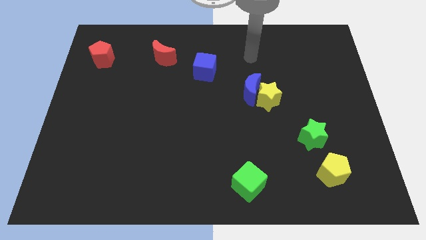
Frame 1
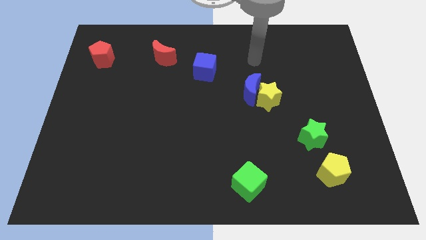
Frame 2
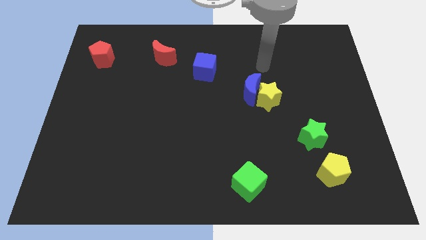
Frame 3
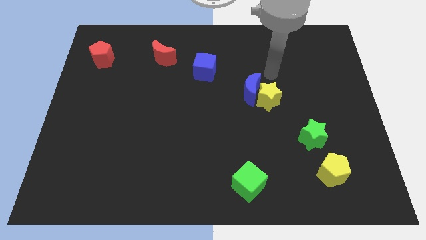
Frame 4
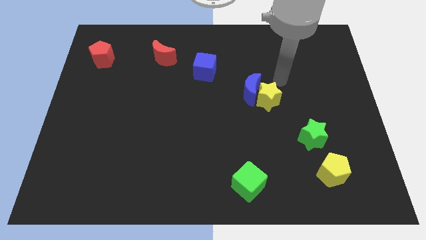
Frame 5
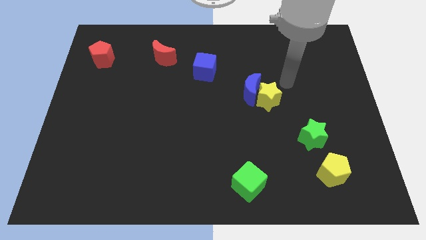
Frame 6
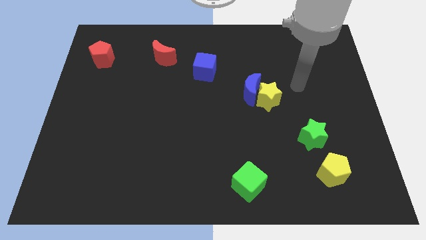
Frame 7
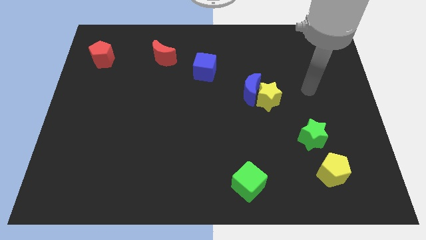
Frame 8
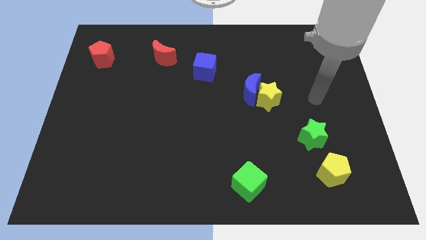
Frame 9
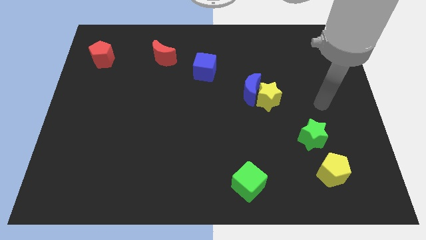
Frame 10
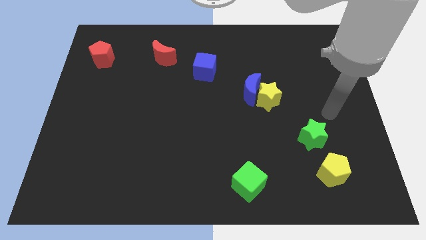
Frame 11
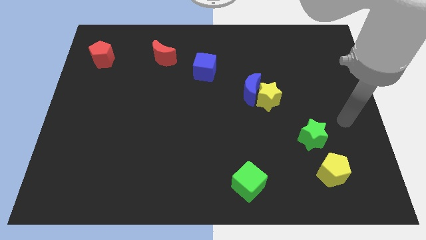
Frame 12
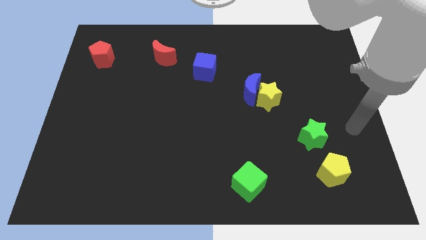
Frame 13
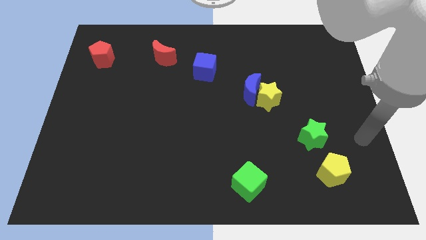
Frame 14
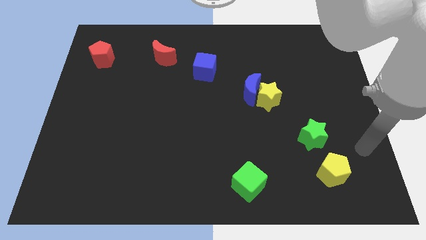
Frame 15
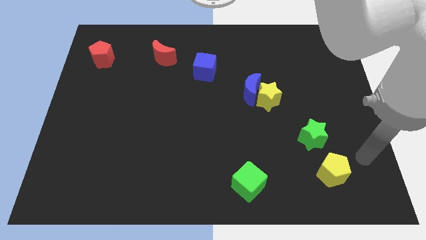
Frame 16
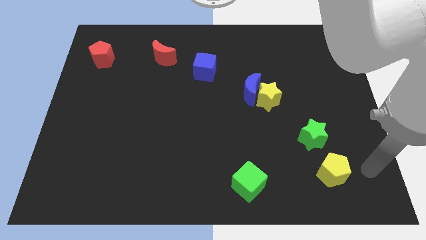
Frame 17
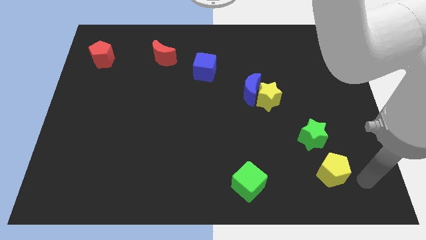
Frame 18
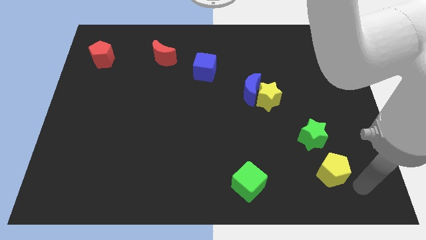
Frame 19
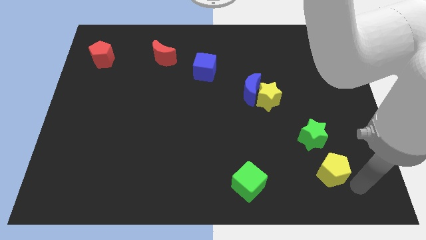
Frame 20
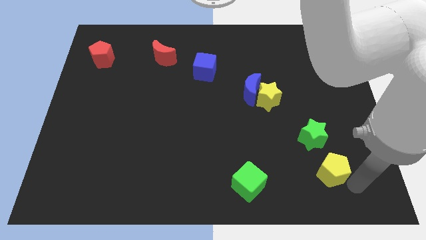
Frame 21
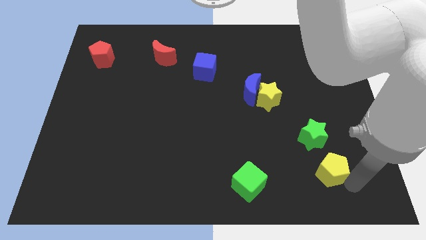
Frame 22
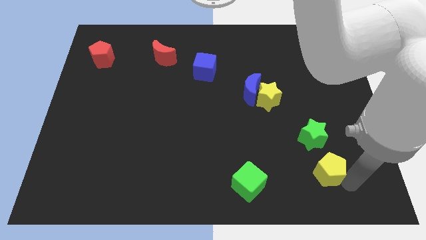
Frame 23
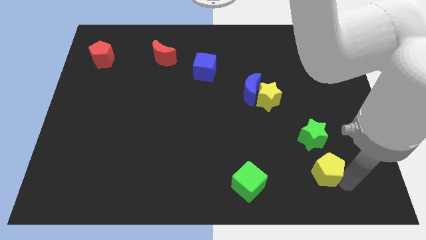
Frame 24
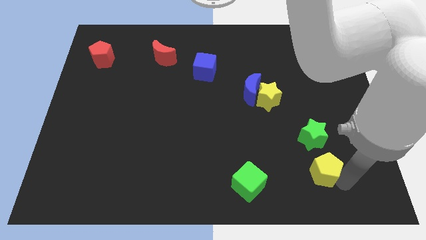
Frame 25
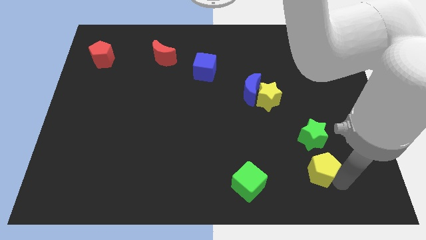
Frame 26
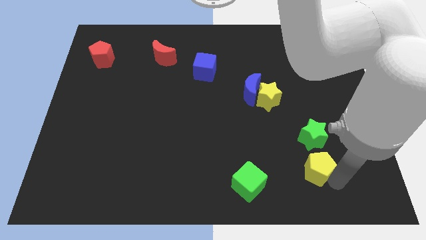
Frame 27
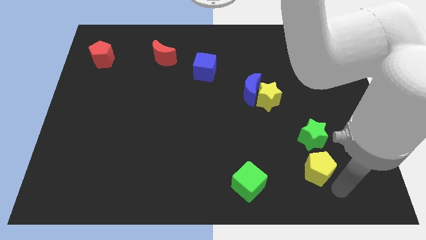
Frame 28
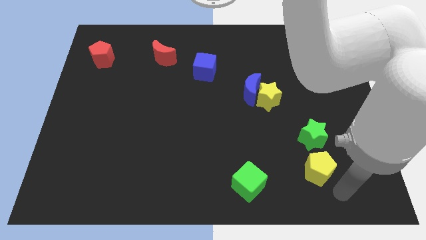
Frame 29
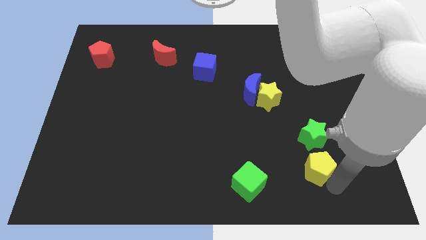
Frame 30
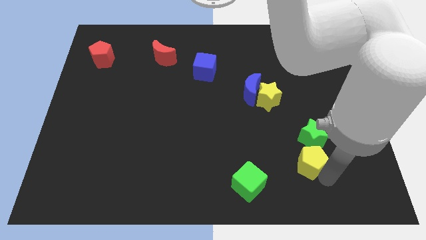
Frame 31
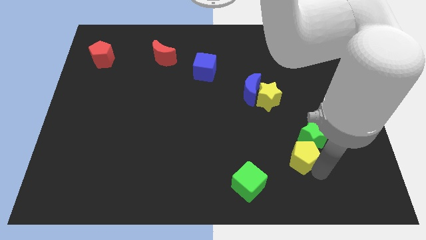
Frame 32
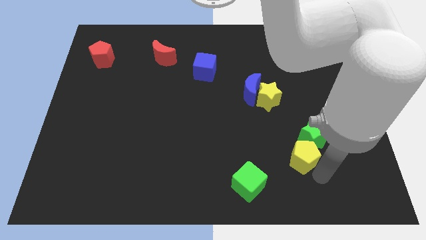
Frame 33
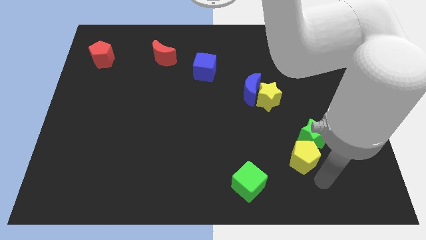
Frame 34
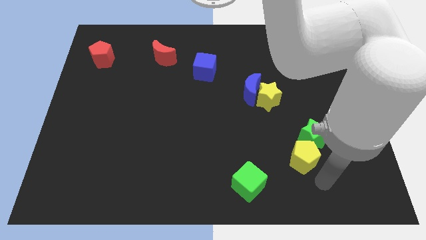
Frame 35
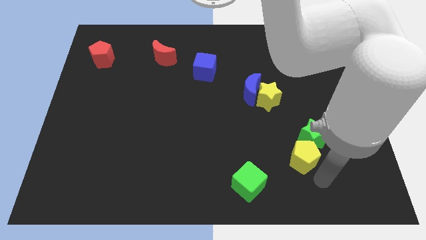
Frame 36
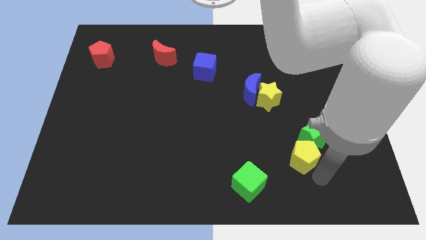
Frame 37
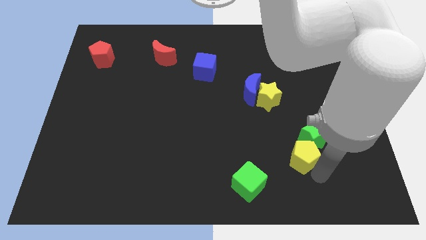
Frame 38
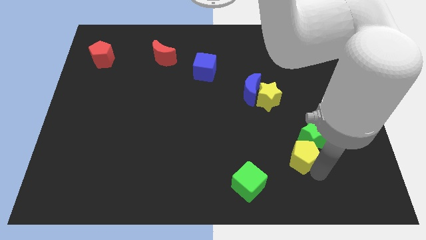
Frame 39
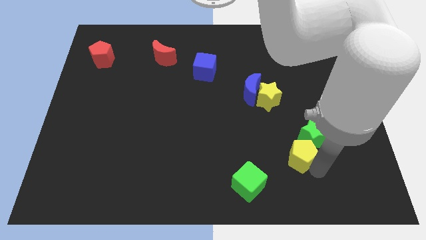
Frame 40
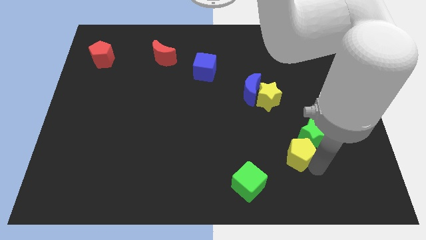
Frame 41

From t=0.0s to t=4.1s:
move the yellow pentagon upwards and then to the left a little bit

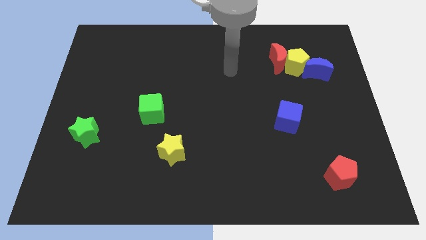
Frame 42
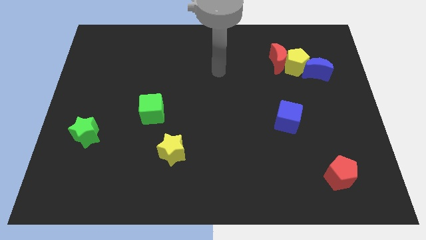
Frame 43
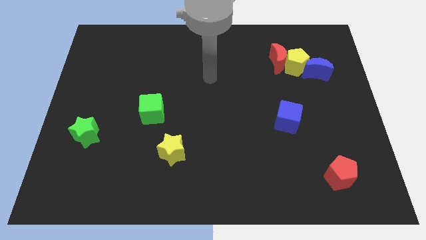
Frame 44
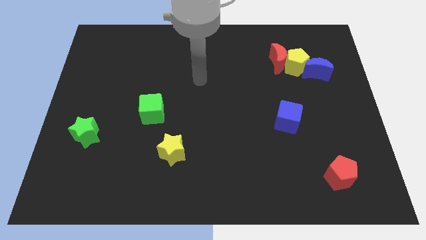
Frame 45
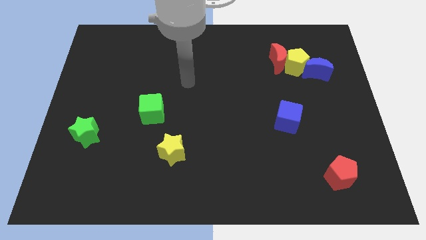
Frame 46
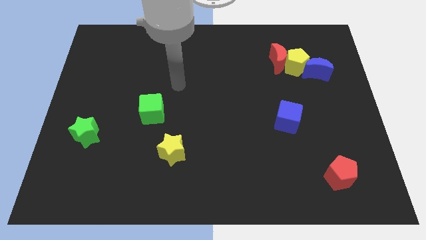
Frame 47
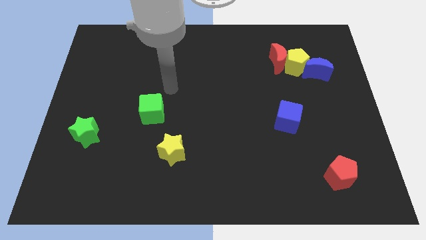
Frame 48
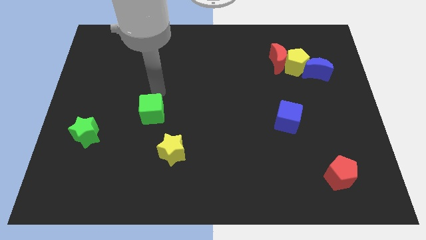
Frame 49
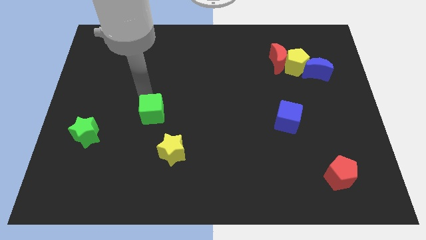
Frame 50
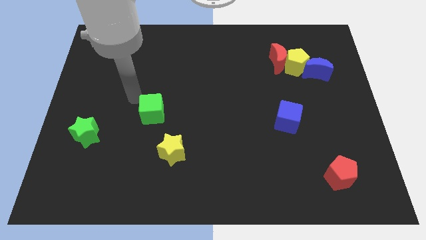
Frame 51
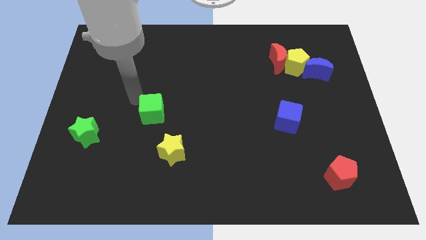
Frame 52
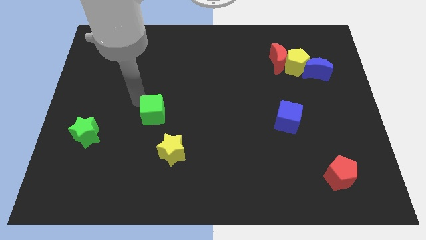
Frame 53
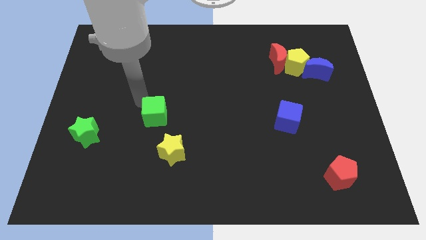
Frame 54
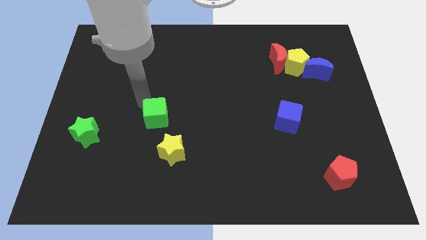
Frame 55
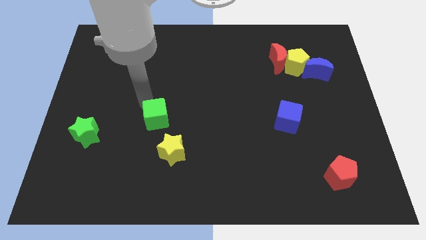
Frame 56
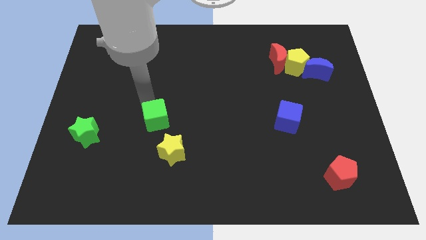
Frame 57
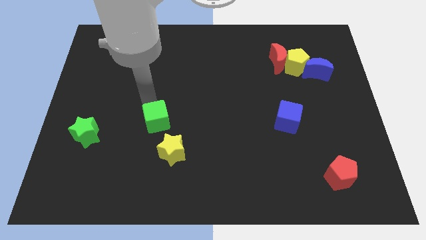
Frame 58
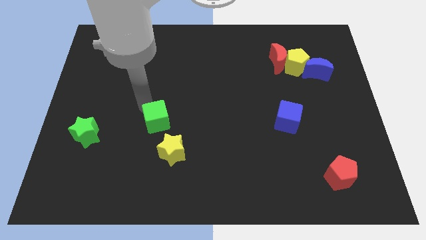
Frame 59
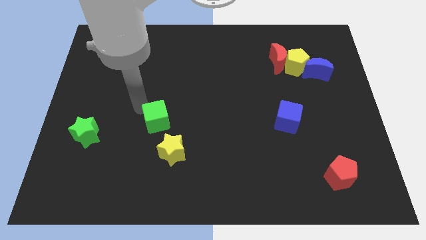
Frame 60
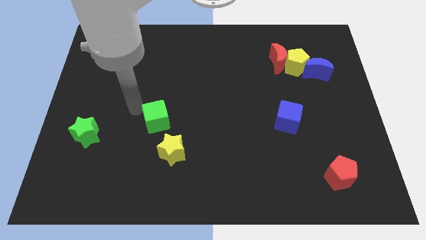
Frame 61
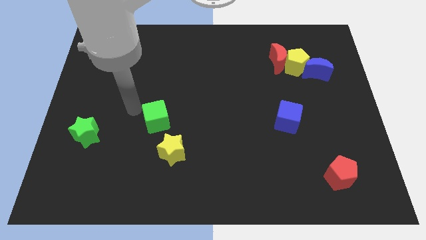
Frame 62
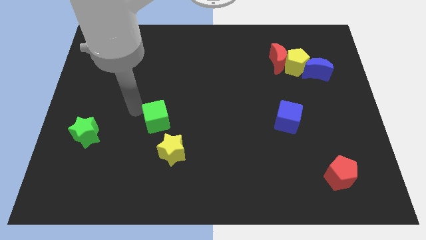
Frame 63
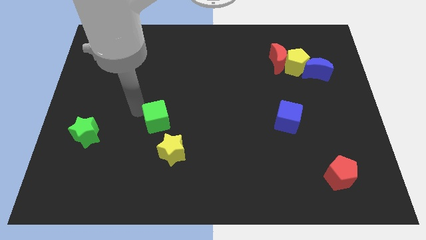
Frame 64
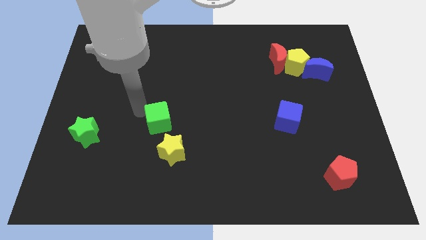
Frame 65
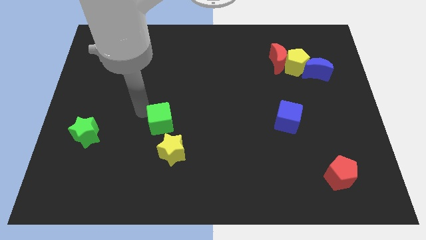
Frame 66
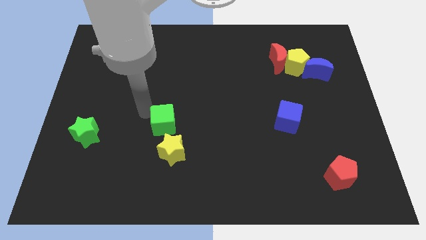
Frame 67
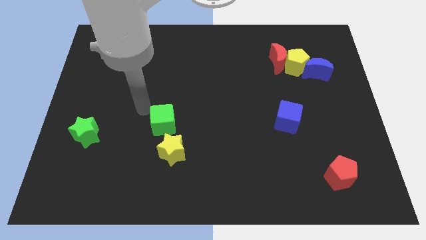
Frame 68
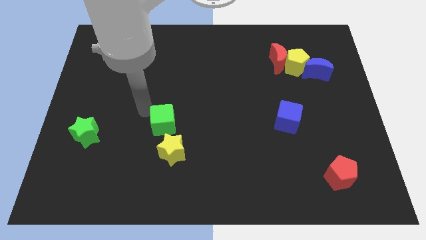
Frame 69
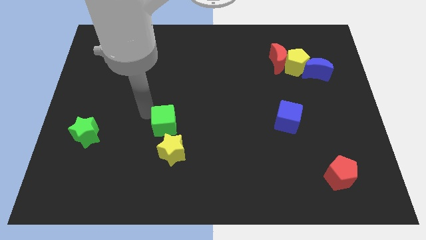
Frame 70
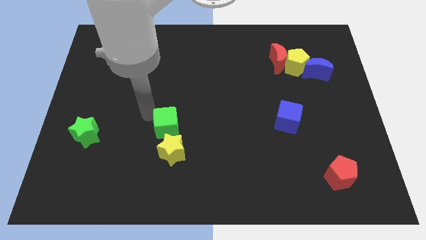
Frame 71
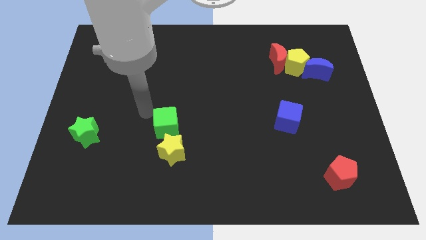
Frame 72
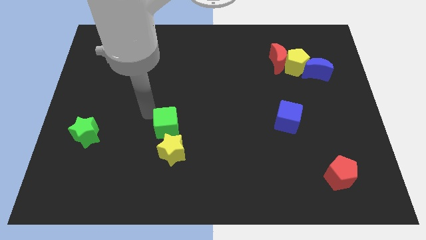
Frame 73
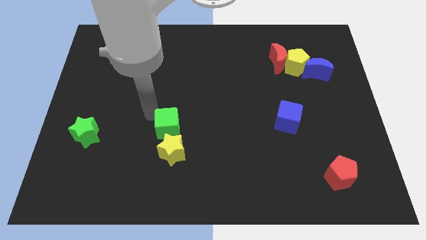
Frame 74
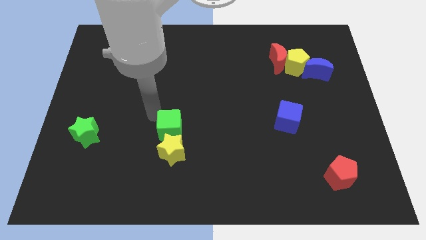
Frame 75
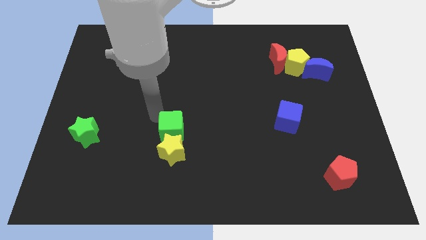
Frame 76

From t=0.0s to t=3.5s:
push the green cube slightly down and then right

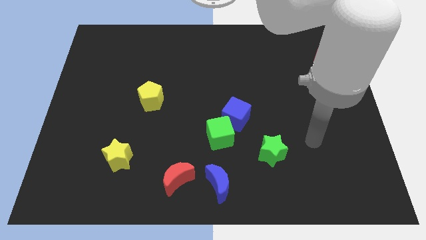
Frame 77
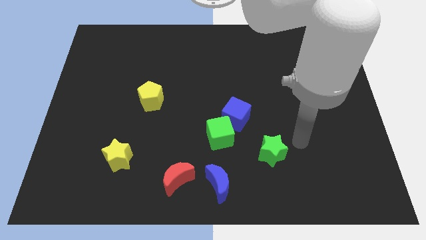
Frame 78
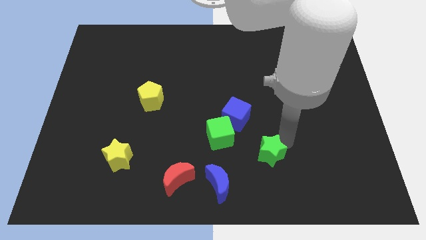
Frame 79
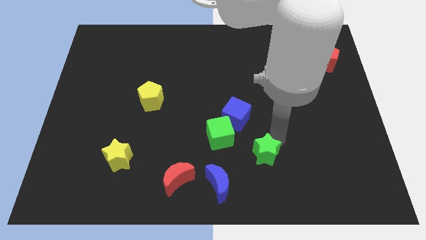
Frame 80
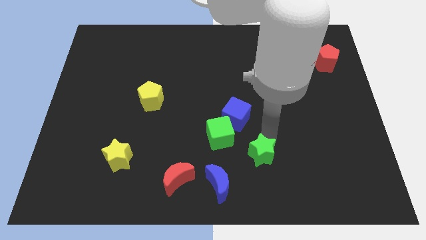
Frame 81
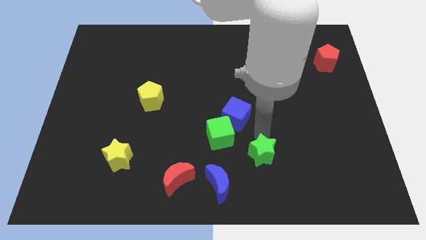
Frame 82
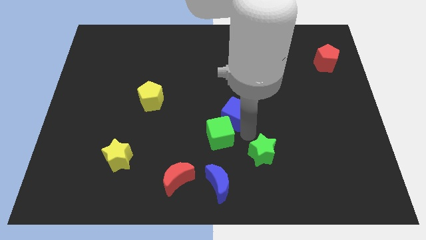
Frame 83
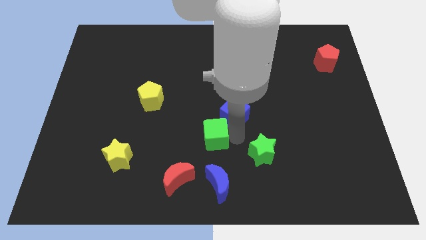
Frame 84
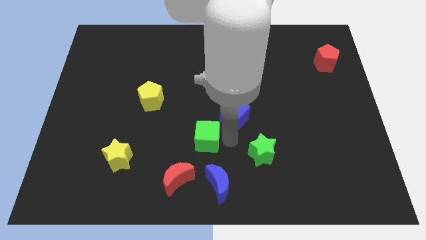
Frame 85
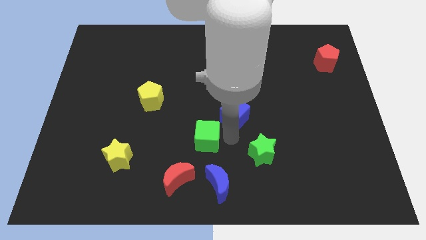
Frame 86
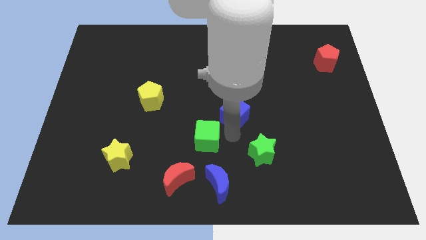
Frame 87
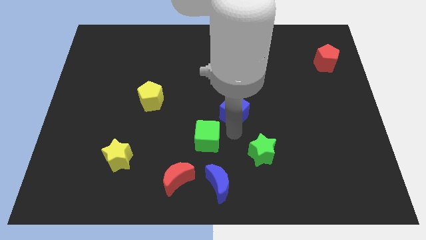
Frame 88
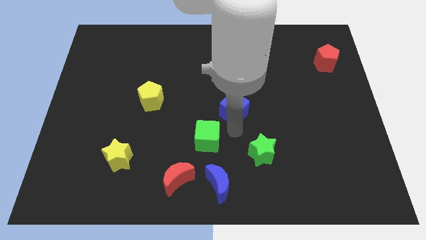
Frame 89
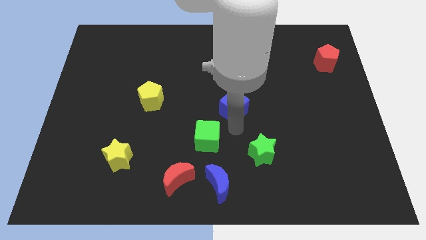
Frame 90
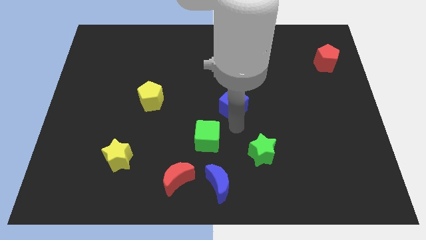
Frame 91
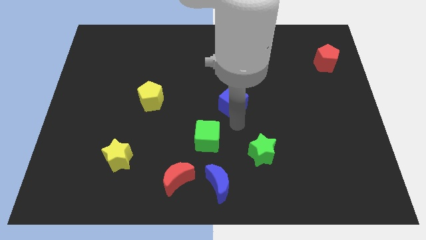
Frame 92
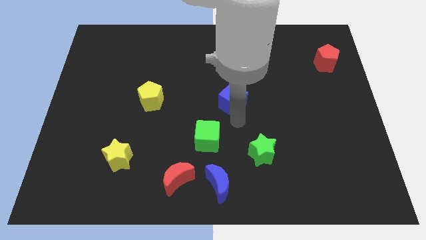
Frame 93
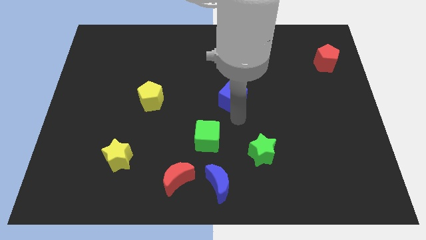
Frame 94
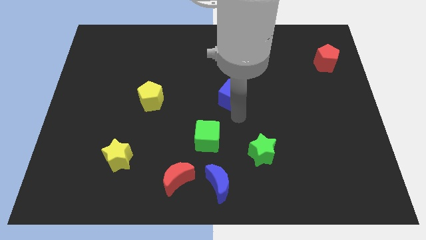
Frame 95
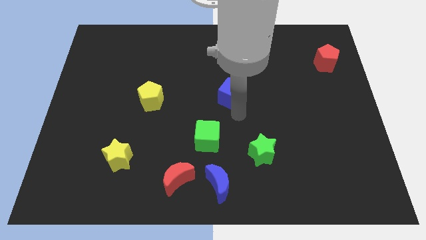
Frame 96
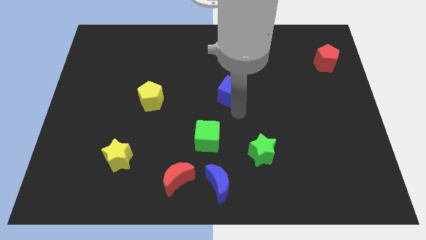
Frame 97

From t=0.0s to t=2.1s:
push the blue cube a bit upwards
